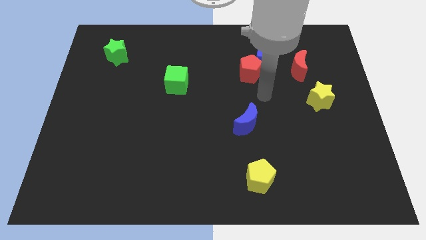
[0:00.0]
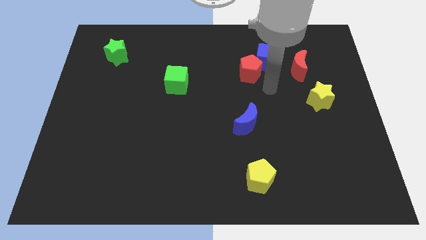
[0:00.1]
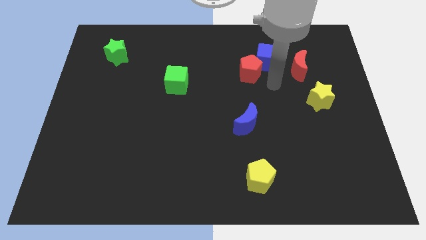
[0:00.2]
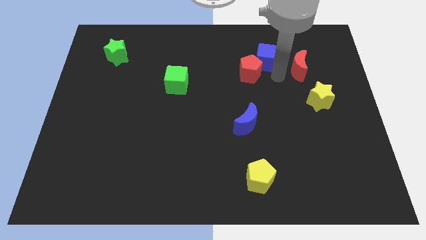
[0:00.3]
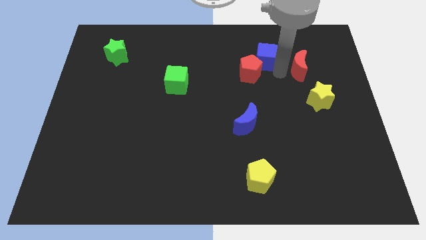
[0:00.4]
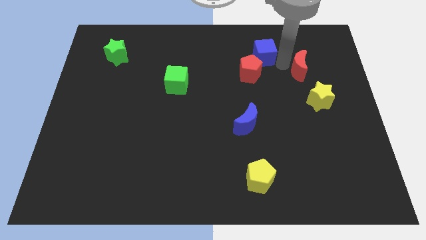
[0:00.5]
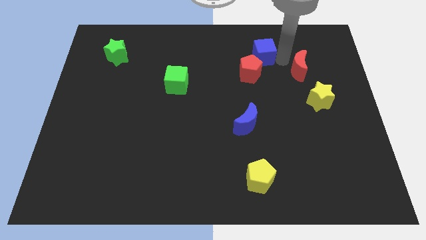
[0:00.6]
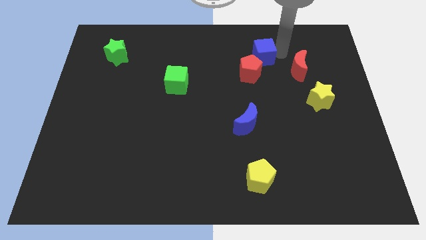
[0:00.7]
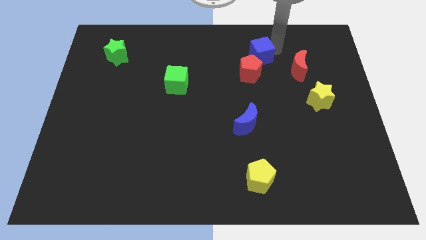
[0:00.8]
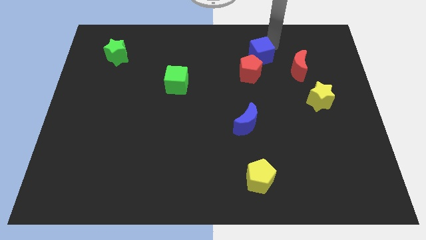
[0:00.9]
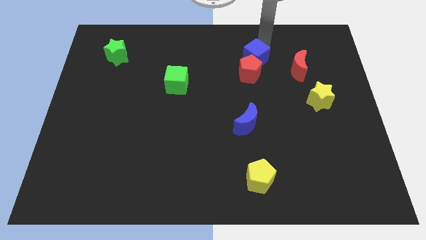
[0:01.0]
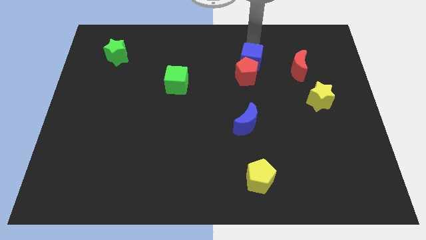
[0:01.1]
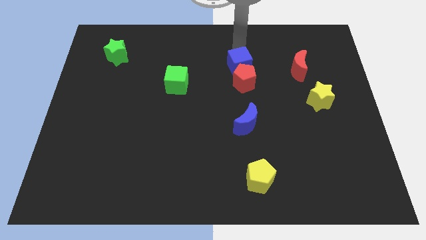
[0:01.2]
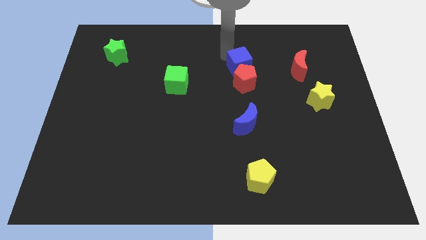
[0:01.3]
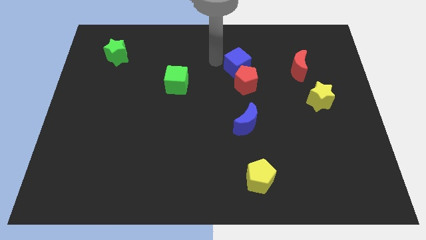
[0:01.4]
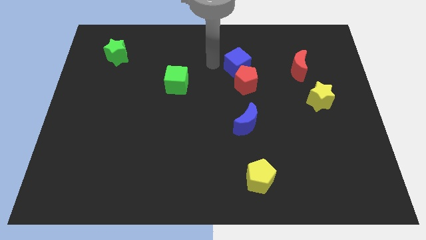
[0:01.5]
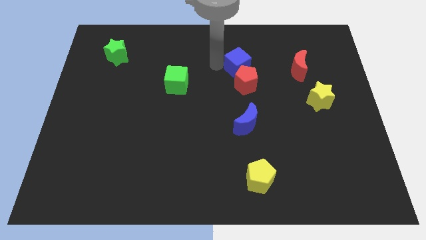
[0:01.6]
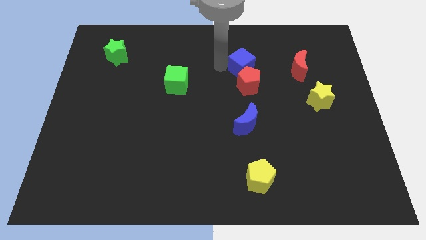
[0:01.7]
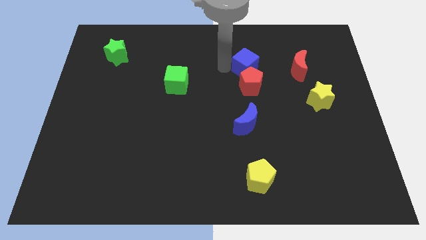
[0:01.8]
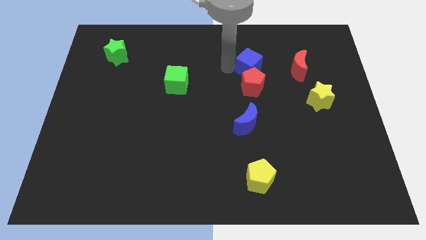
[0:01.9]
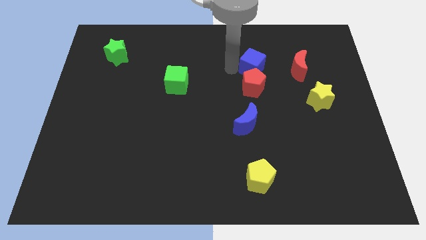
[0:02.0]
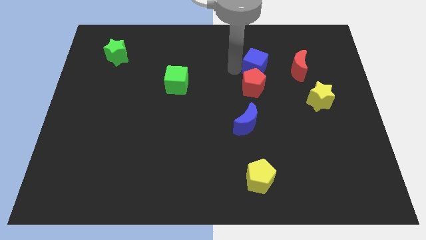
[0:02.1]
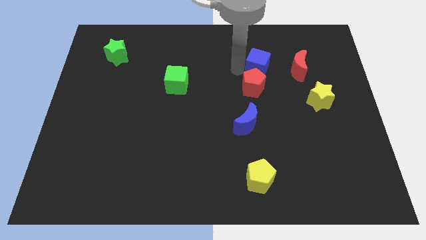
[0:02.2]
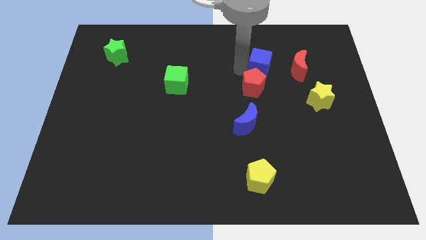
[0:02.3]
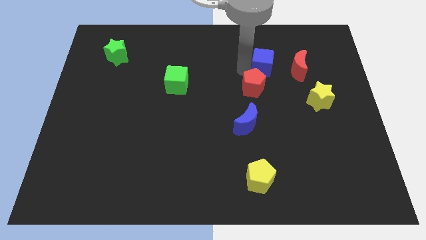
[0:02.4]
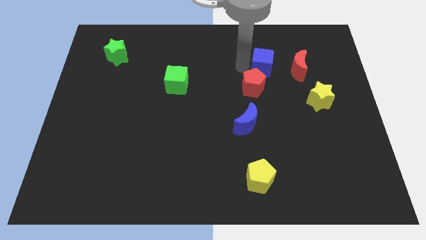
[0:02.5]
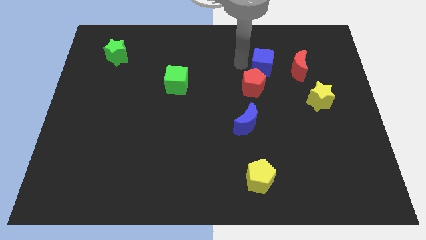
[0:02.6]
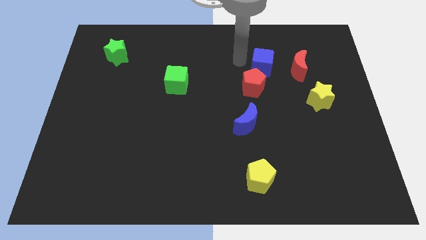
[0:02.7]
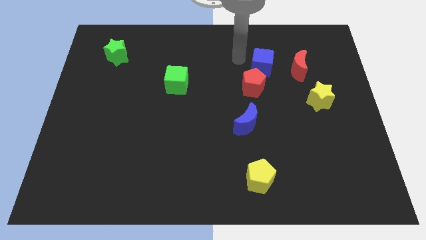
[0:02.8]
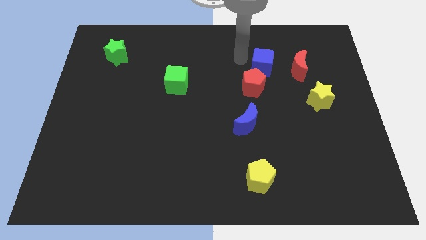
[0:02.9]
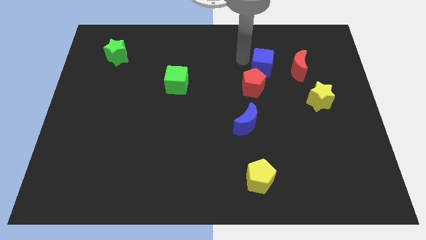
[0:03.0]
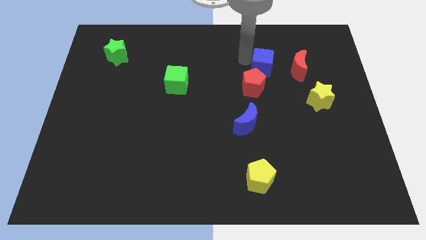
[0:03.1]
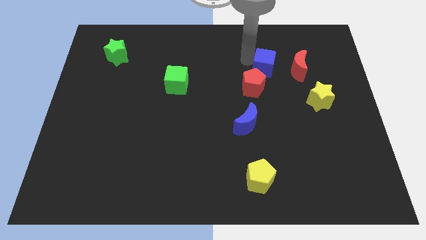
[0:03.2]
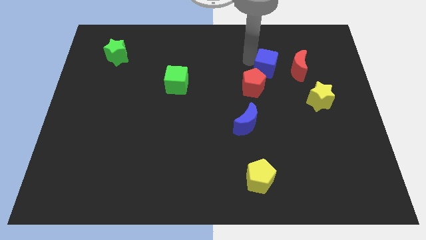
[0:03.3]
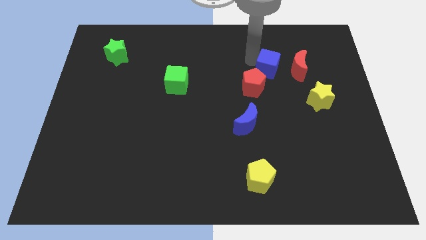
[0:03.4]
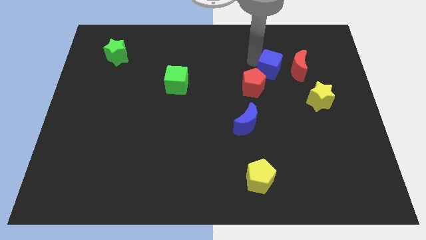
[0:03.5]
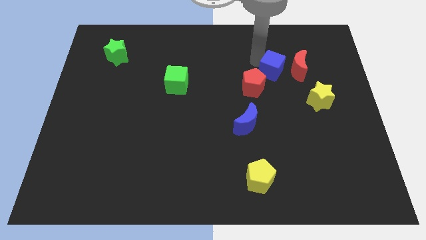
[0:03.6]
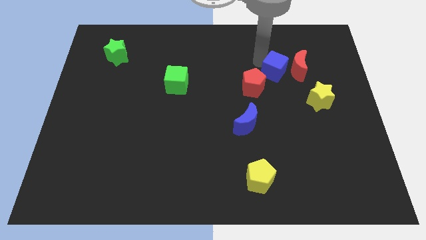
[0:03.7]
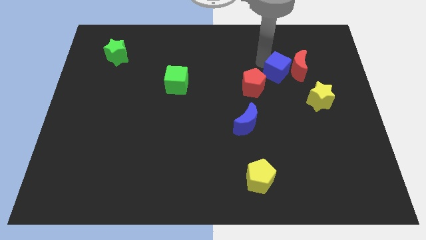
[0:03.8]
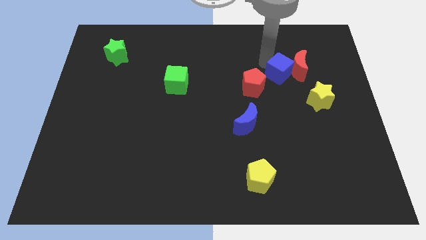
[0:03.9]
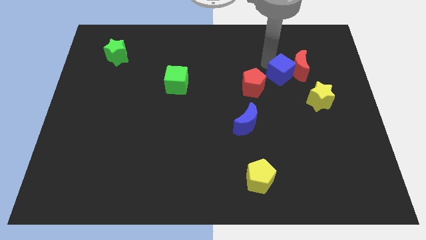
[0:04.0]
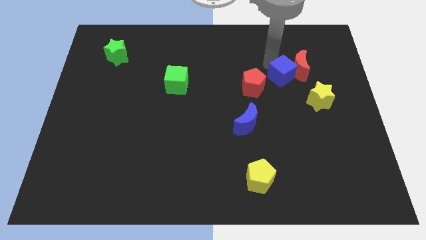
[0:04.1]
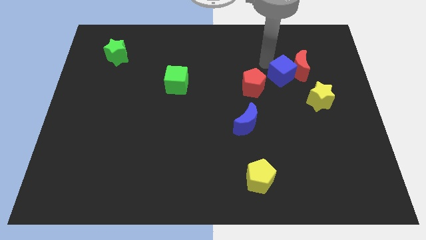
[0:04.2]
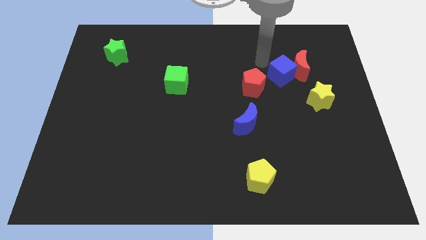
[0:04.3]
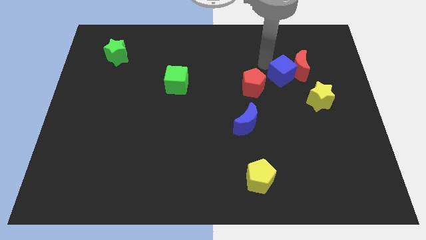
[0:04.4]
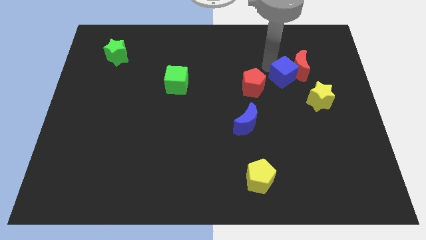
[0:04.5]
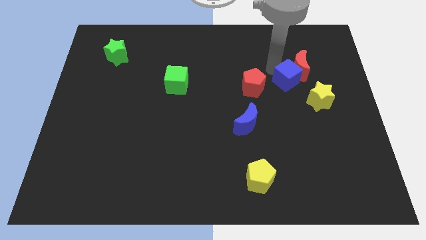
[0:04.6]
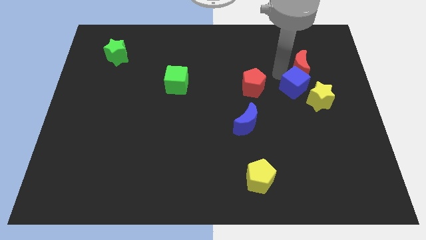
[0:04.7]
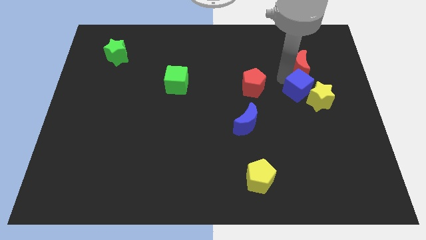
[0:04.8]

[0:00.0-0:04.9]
slide the blue cube to the yellow star

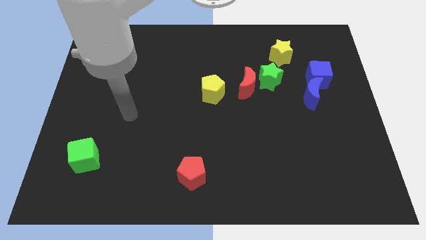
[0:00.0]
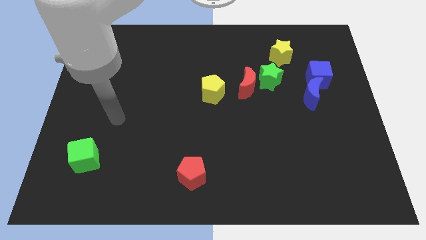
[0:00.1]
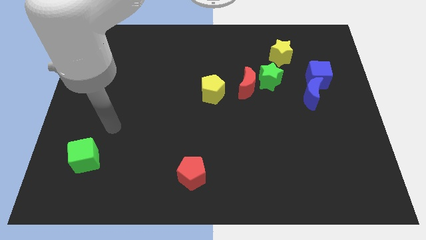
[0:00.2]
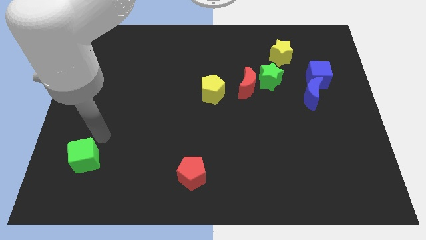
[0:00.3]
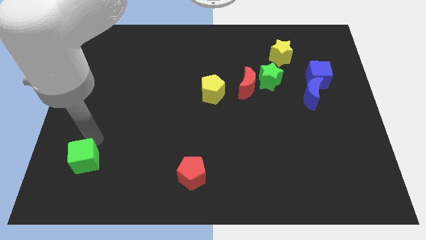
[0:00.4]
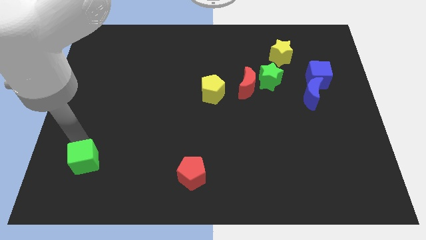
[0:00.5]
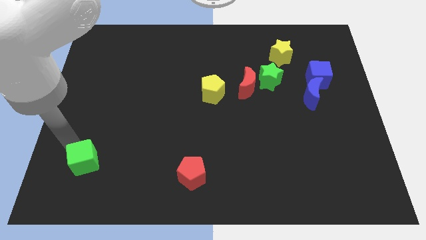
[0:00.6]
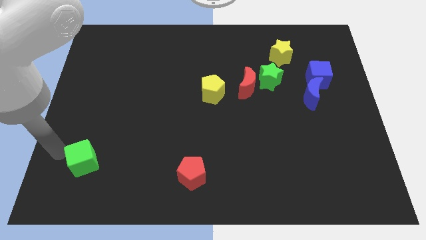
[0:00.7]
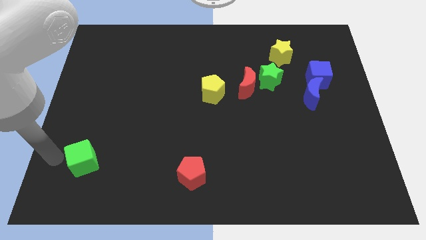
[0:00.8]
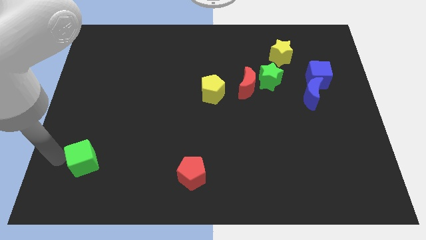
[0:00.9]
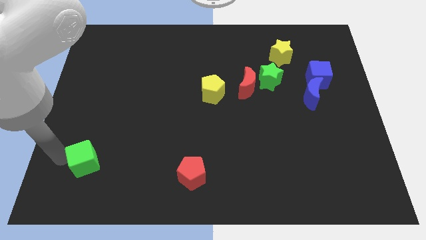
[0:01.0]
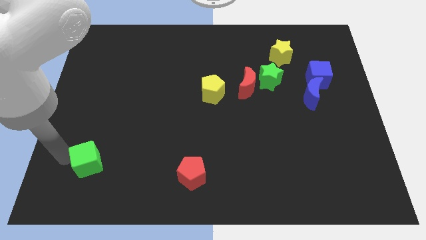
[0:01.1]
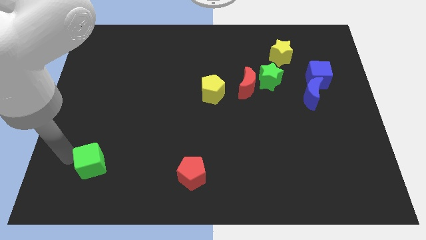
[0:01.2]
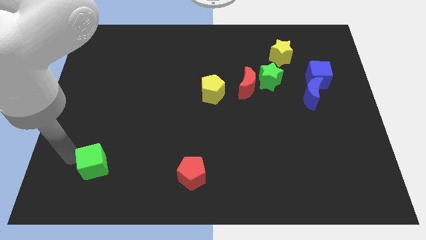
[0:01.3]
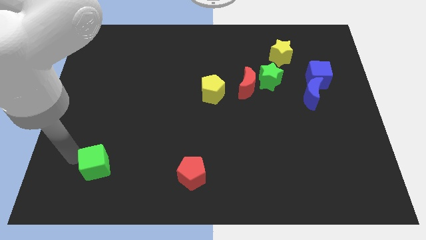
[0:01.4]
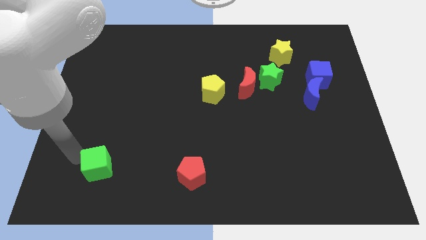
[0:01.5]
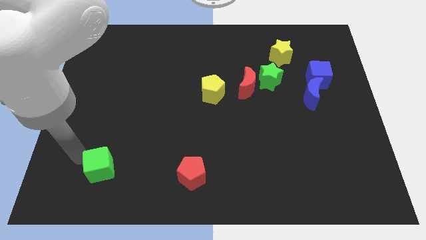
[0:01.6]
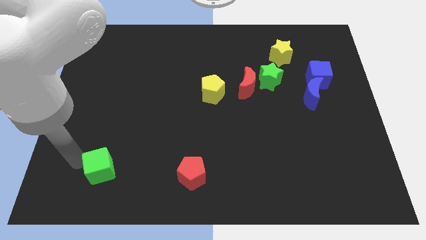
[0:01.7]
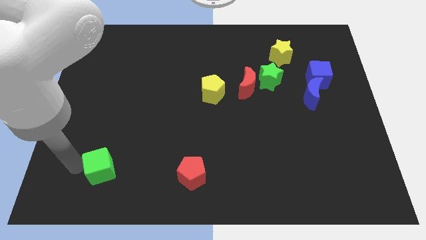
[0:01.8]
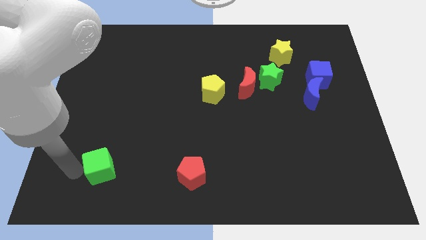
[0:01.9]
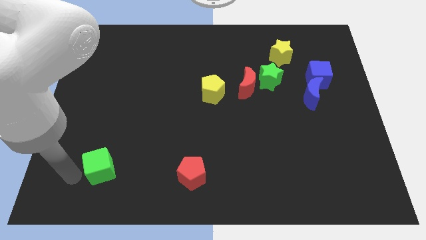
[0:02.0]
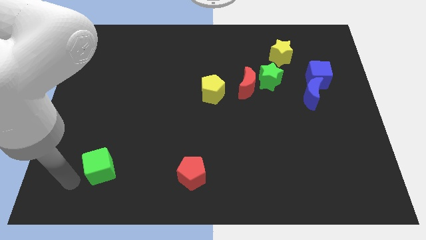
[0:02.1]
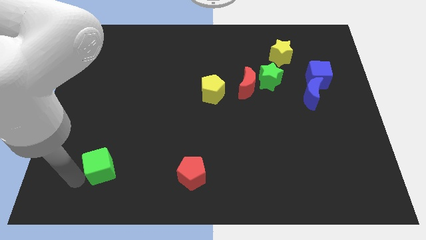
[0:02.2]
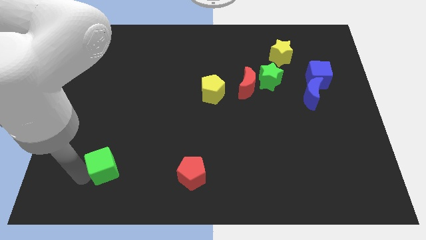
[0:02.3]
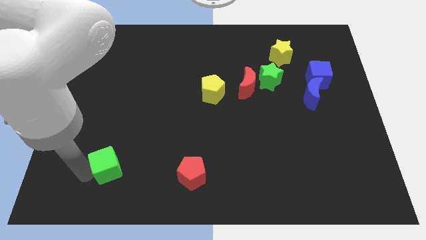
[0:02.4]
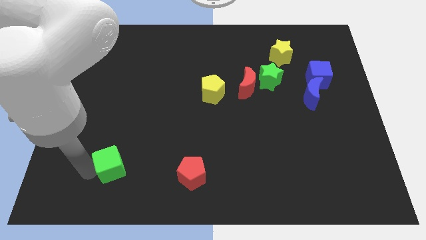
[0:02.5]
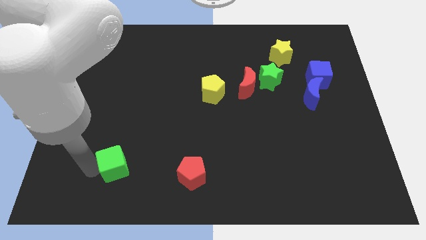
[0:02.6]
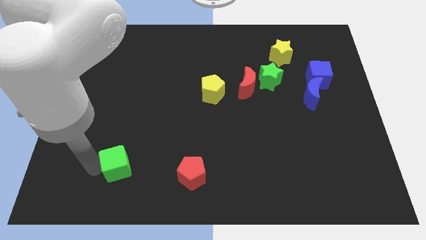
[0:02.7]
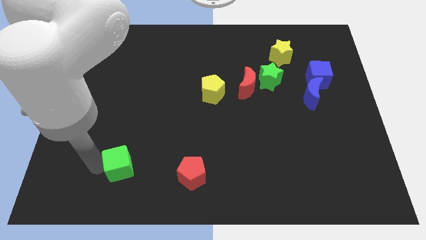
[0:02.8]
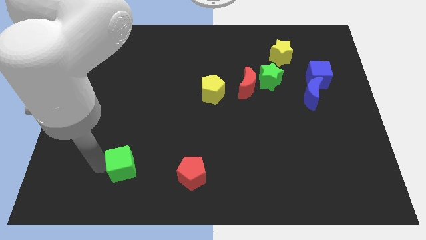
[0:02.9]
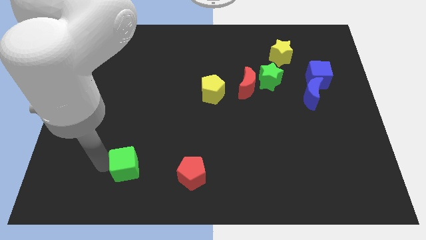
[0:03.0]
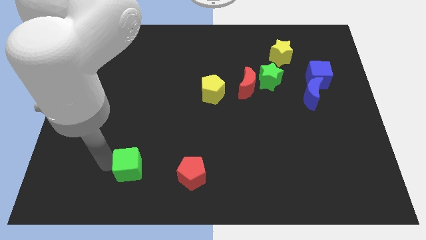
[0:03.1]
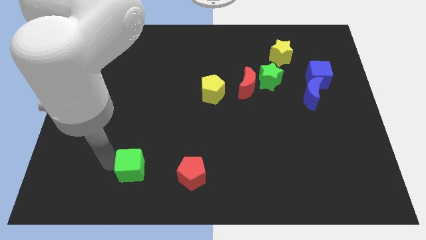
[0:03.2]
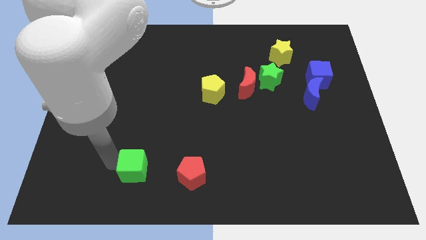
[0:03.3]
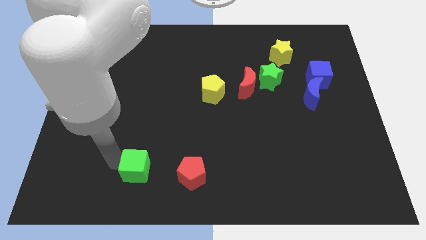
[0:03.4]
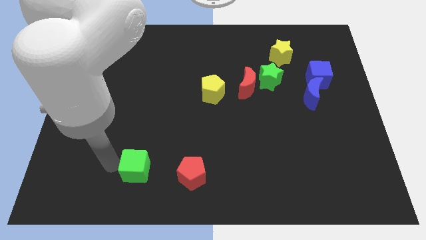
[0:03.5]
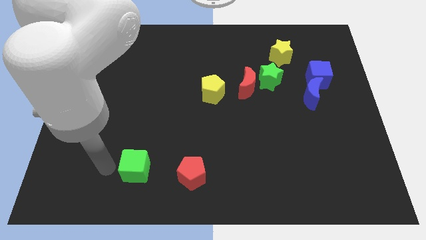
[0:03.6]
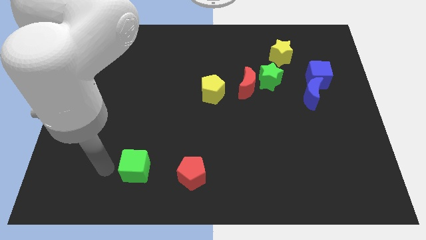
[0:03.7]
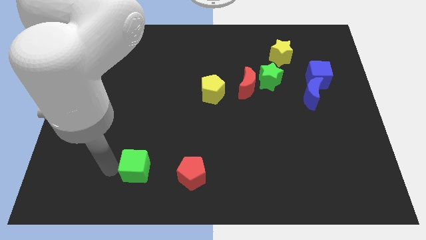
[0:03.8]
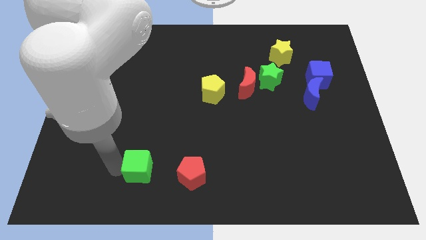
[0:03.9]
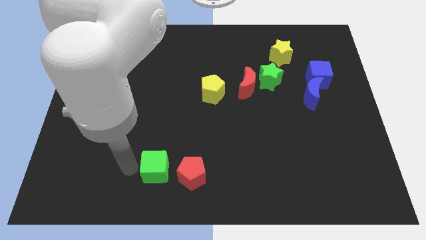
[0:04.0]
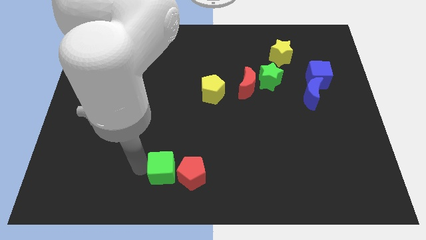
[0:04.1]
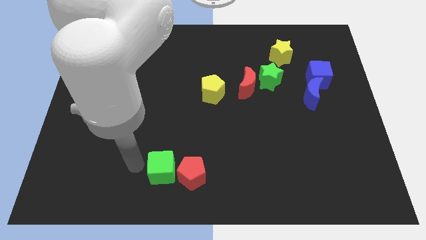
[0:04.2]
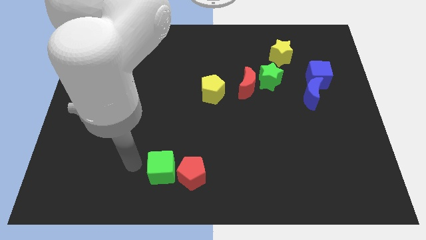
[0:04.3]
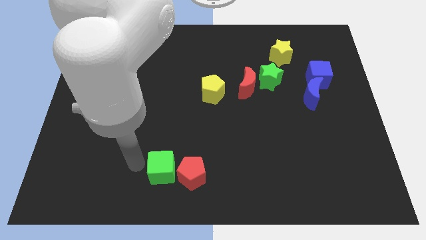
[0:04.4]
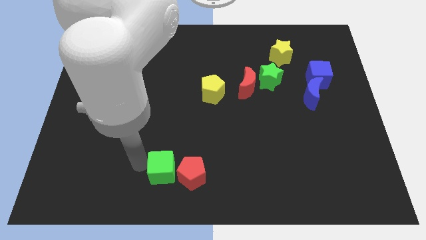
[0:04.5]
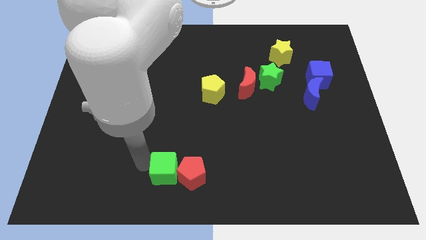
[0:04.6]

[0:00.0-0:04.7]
put the green cube close to the red pentagon
